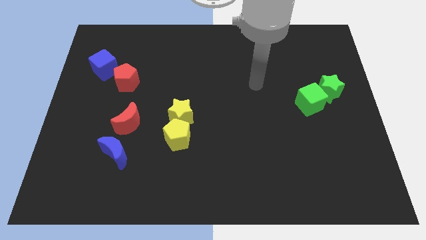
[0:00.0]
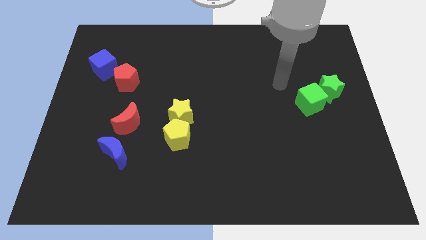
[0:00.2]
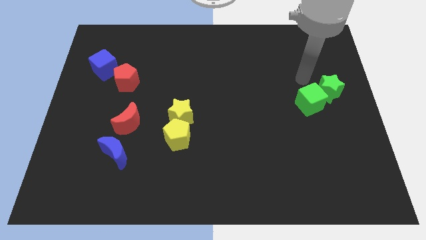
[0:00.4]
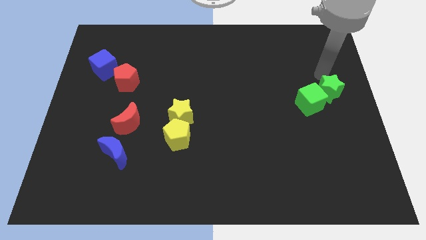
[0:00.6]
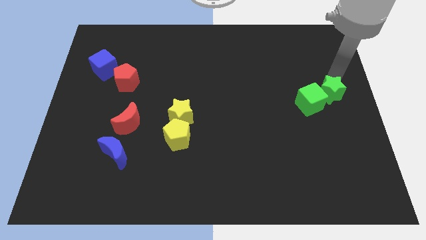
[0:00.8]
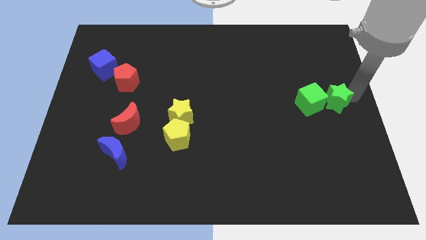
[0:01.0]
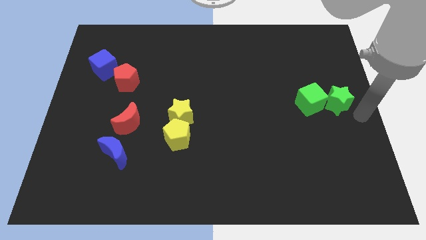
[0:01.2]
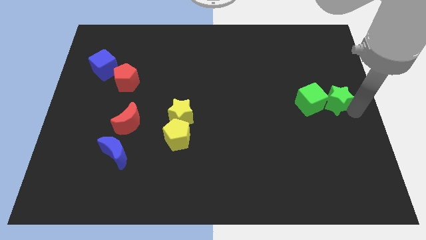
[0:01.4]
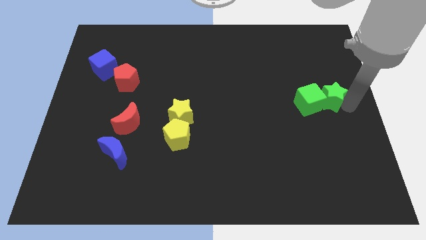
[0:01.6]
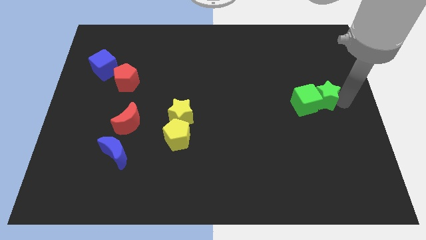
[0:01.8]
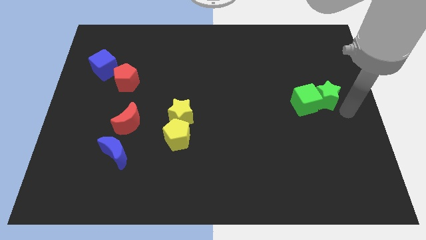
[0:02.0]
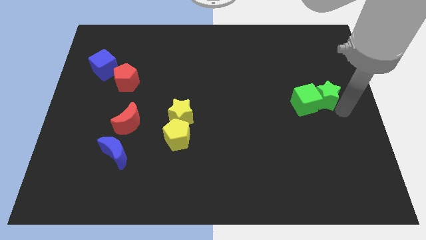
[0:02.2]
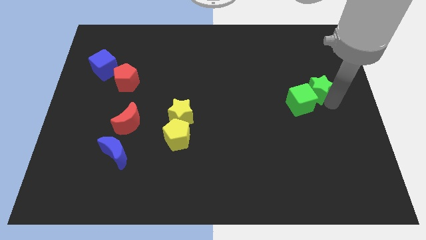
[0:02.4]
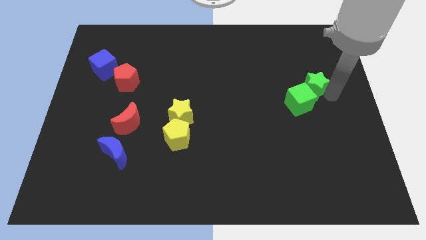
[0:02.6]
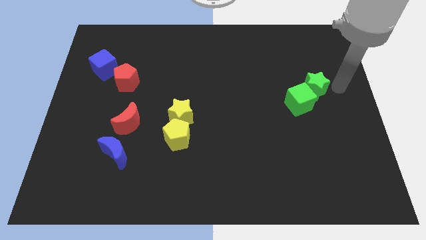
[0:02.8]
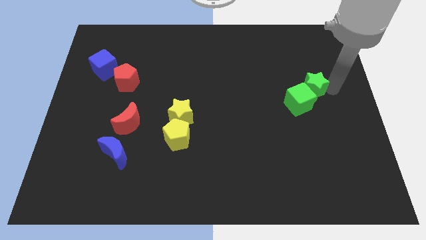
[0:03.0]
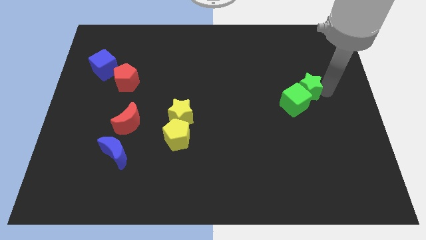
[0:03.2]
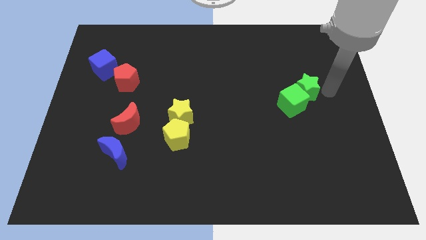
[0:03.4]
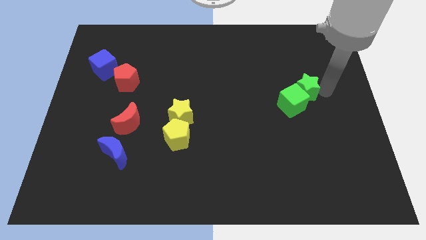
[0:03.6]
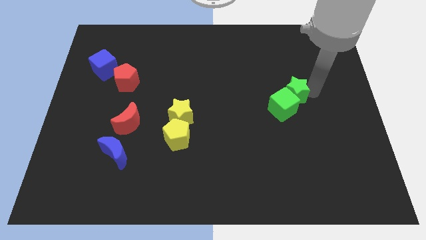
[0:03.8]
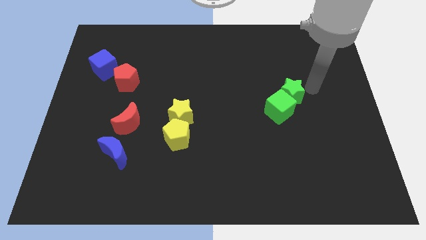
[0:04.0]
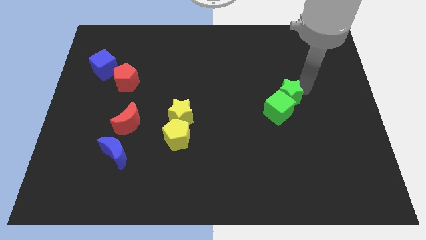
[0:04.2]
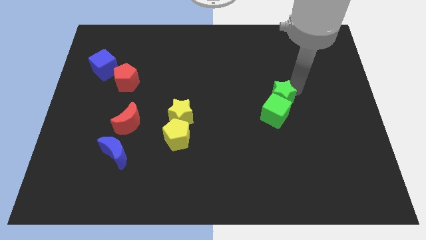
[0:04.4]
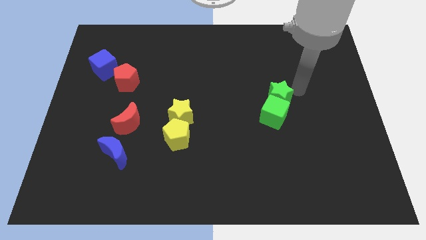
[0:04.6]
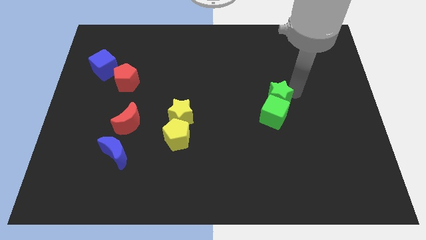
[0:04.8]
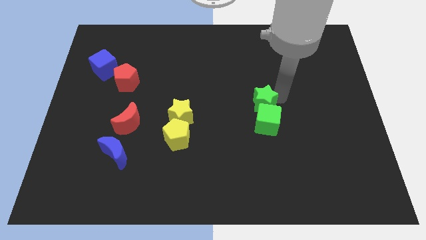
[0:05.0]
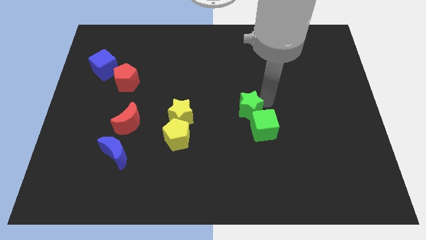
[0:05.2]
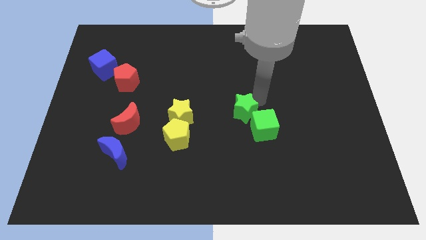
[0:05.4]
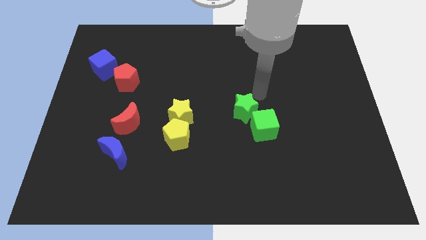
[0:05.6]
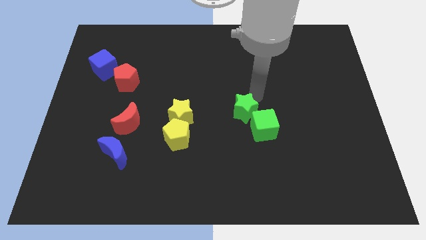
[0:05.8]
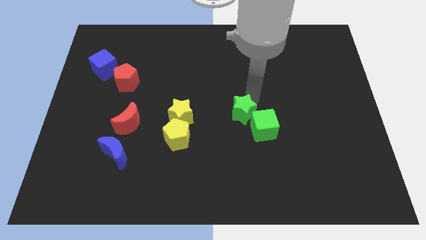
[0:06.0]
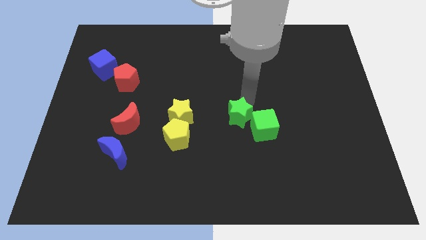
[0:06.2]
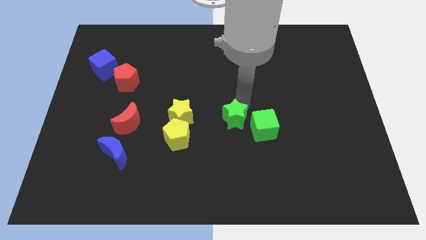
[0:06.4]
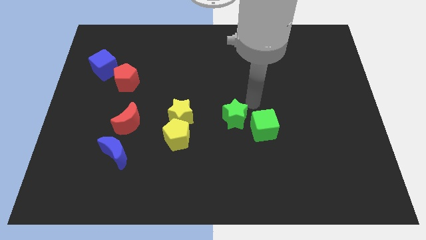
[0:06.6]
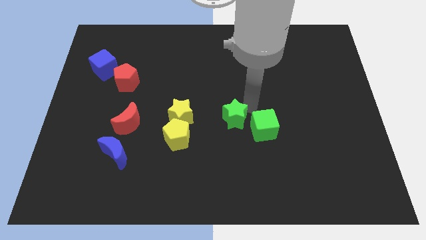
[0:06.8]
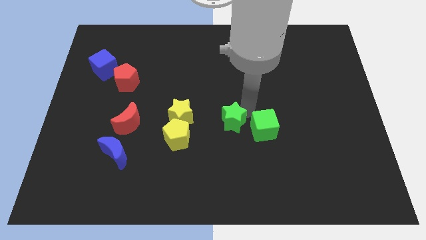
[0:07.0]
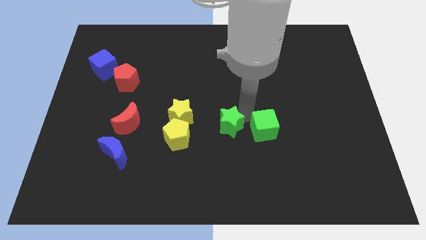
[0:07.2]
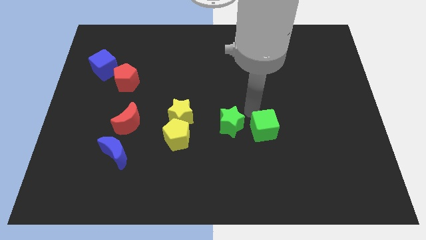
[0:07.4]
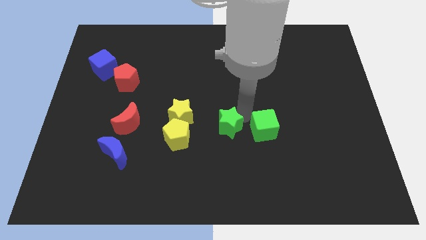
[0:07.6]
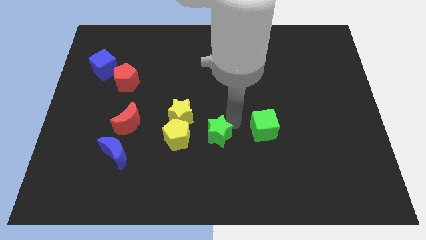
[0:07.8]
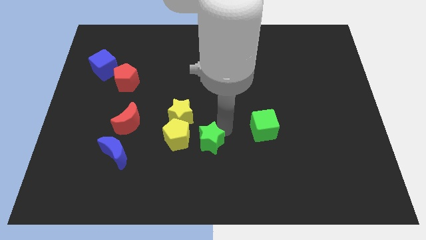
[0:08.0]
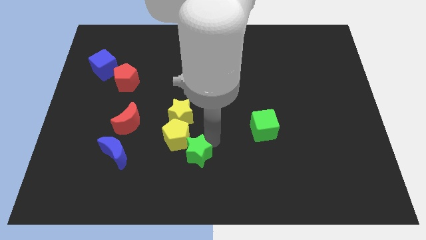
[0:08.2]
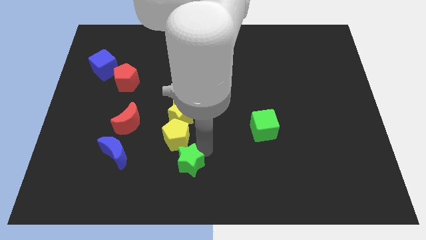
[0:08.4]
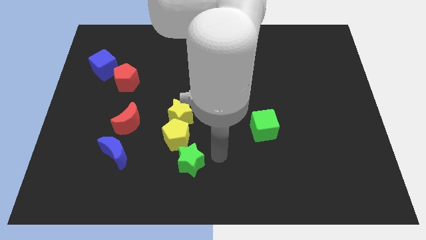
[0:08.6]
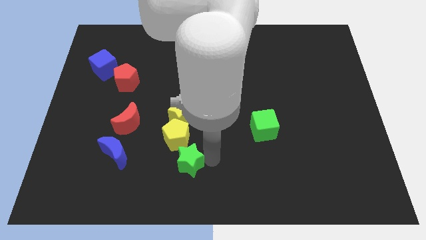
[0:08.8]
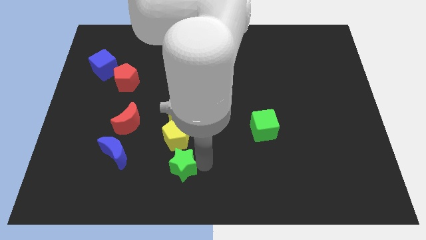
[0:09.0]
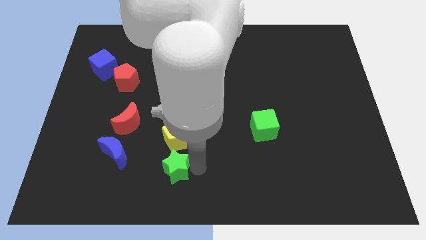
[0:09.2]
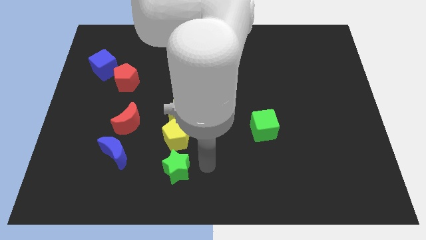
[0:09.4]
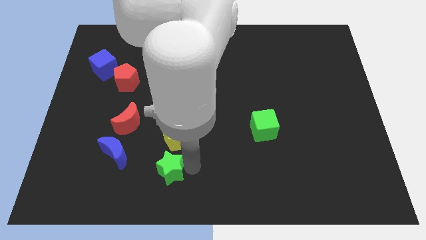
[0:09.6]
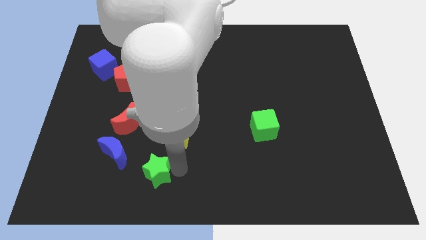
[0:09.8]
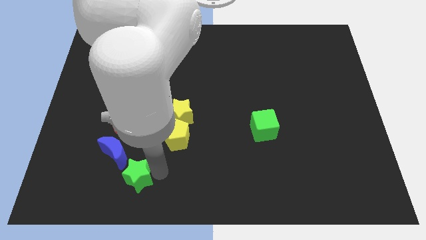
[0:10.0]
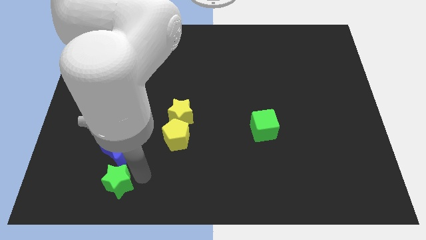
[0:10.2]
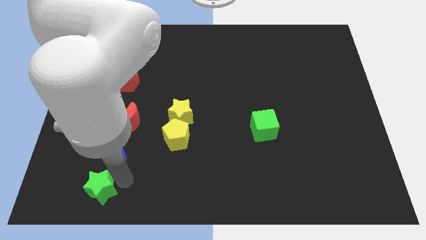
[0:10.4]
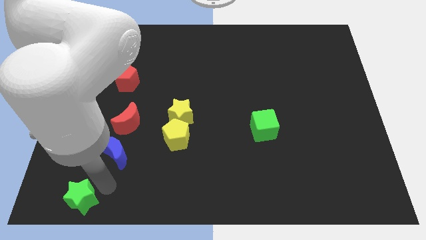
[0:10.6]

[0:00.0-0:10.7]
move the green star to the bottom left

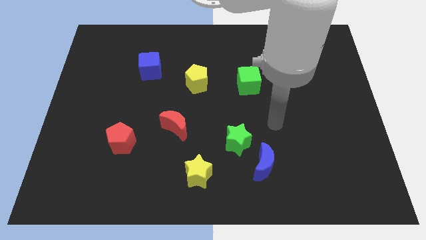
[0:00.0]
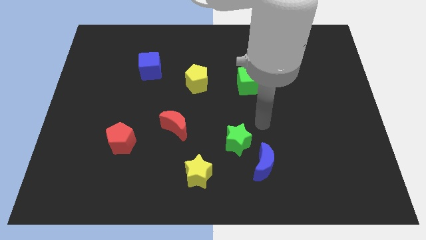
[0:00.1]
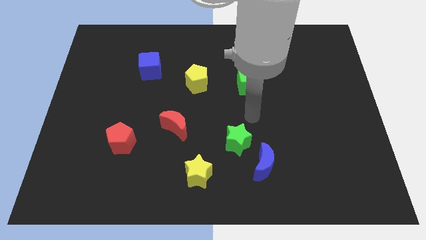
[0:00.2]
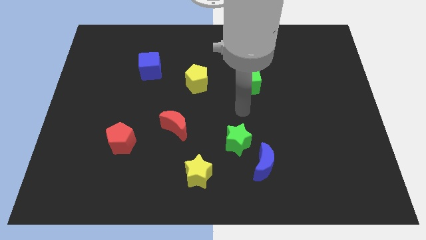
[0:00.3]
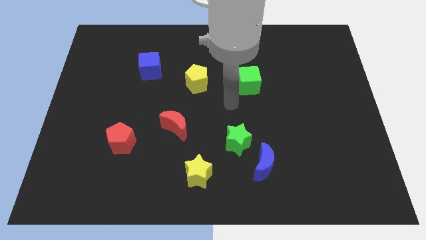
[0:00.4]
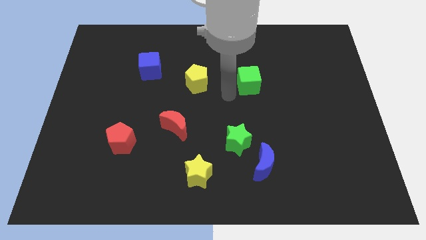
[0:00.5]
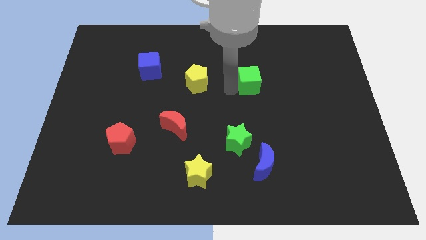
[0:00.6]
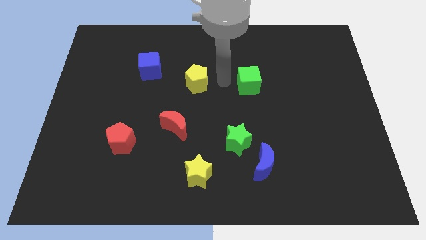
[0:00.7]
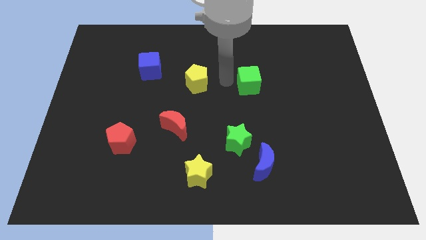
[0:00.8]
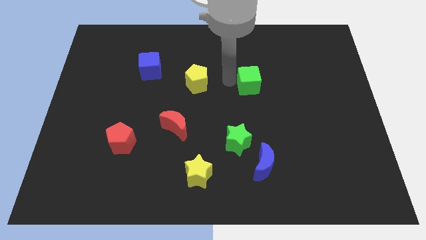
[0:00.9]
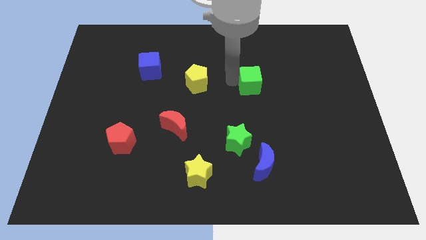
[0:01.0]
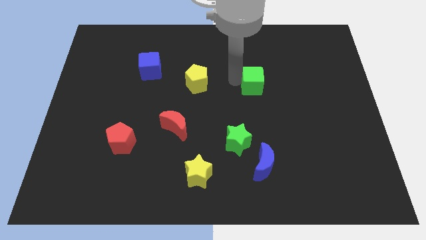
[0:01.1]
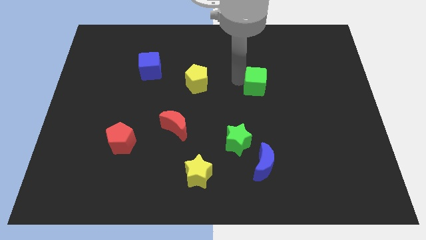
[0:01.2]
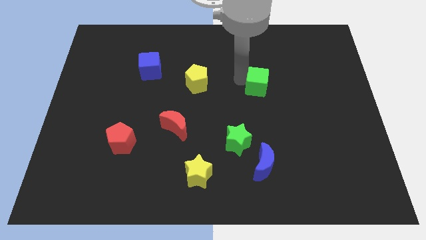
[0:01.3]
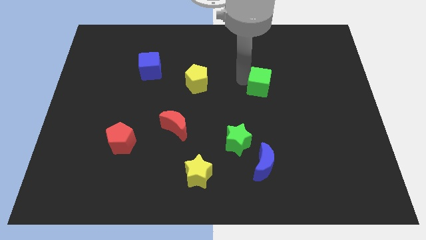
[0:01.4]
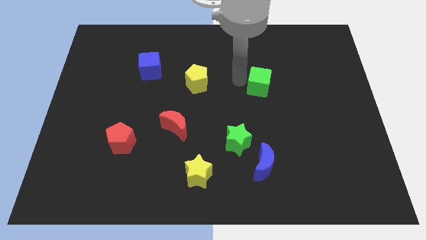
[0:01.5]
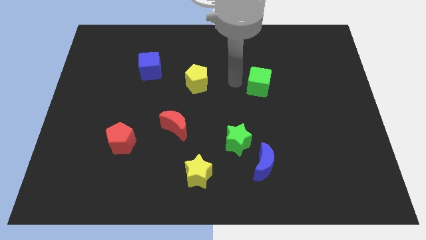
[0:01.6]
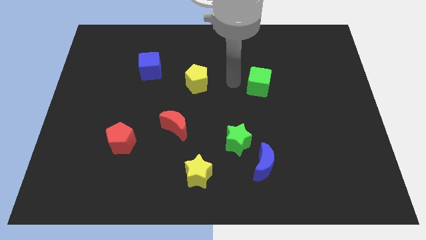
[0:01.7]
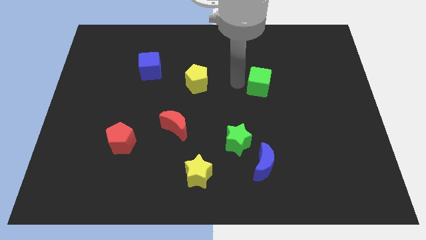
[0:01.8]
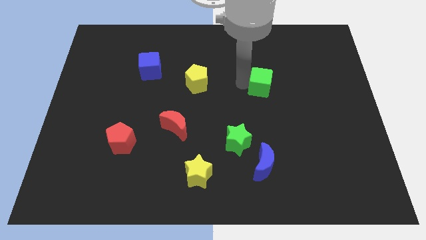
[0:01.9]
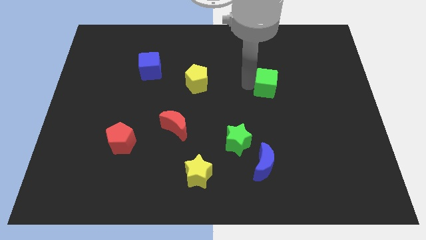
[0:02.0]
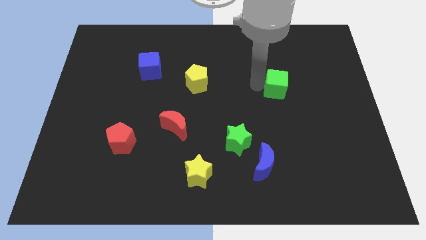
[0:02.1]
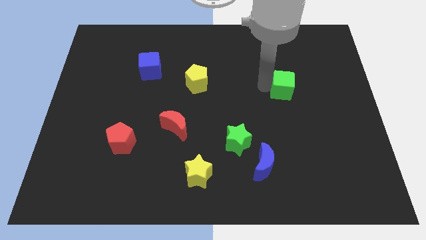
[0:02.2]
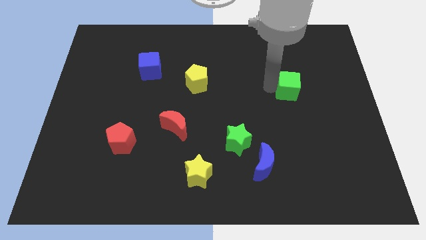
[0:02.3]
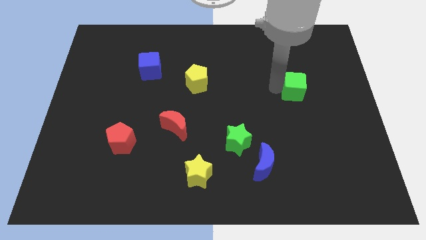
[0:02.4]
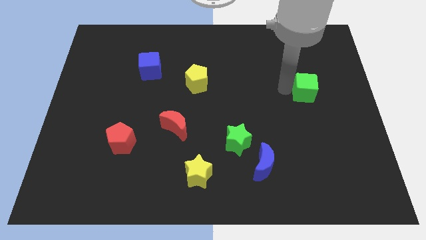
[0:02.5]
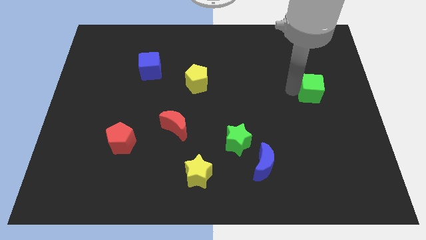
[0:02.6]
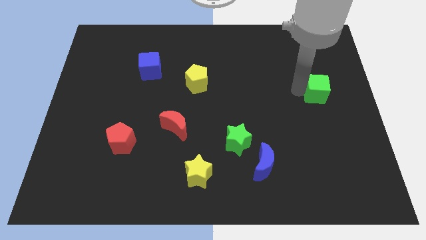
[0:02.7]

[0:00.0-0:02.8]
push the green cube to the right side of the board
